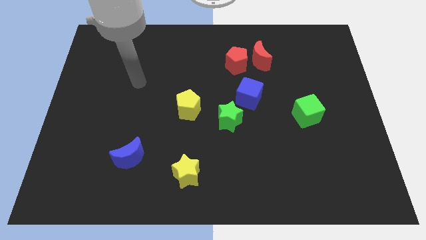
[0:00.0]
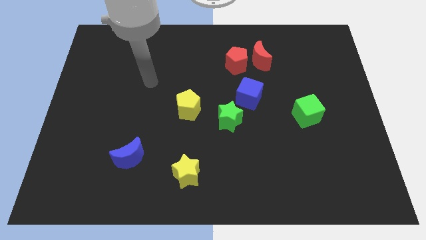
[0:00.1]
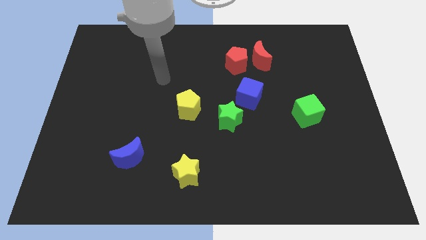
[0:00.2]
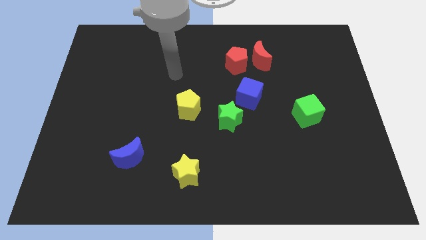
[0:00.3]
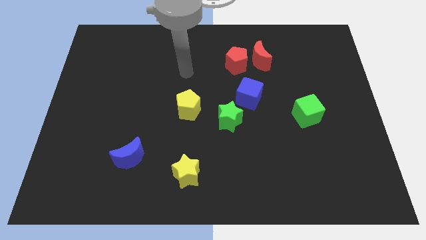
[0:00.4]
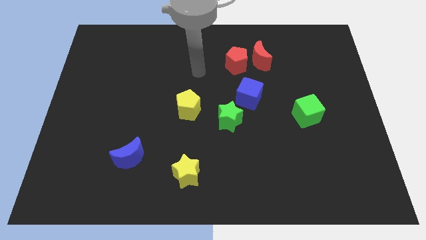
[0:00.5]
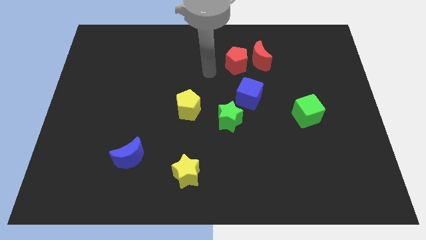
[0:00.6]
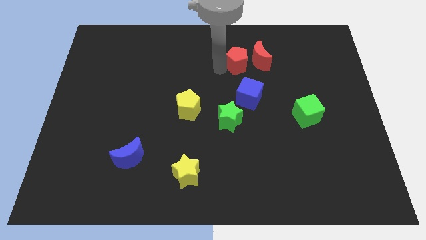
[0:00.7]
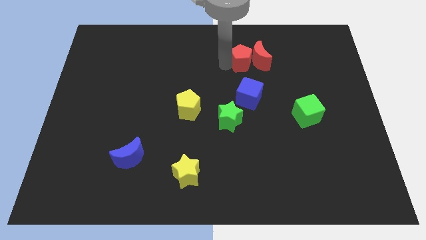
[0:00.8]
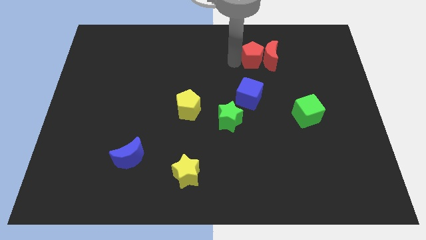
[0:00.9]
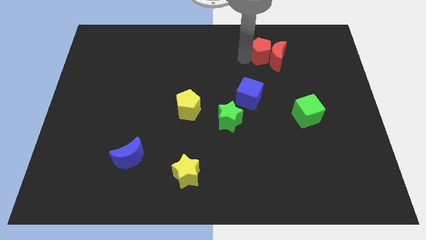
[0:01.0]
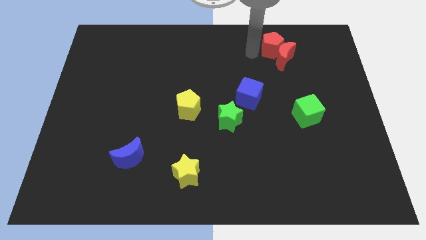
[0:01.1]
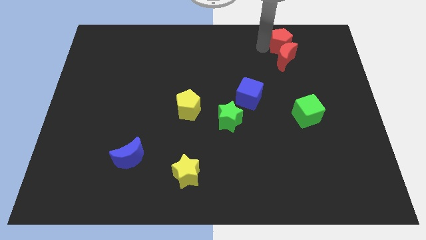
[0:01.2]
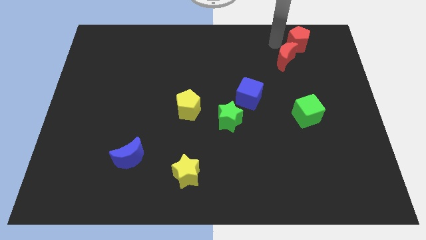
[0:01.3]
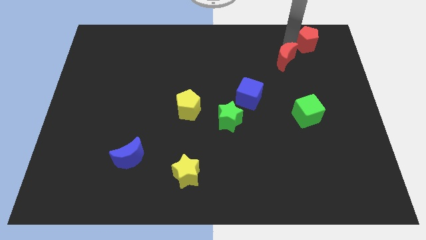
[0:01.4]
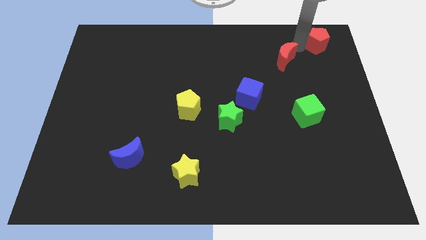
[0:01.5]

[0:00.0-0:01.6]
pull the red moon apart from the red pentagon

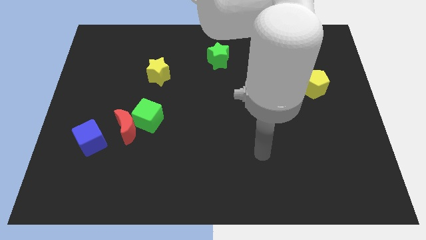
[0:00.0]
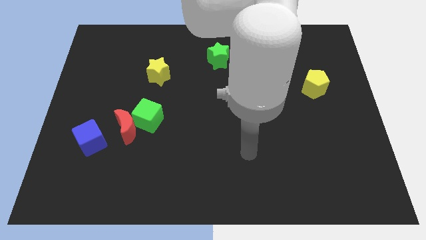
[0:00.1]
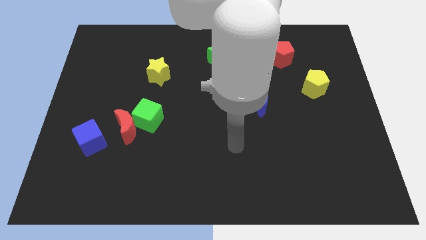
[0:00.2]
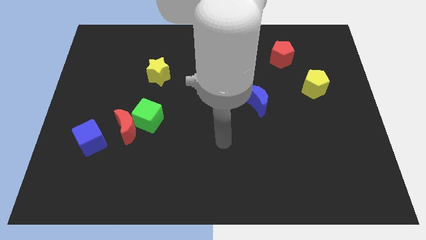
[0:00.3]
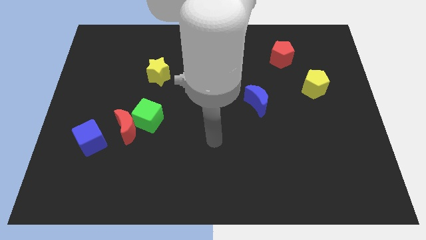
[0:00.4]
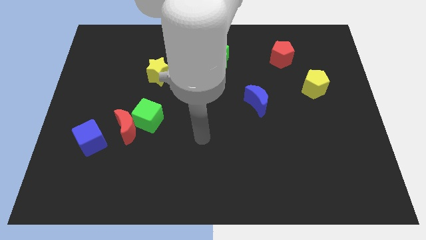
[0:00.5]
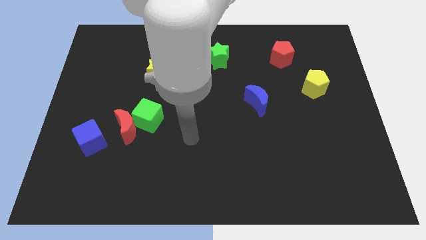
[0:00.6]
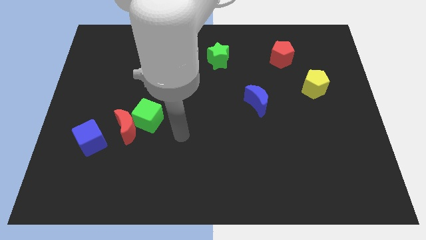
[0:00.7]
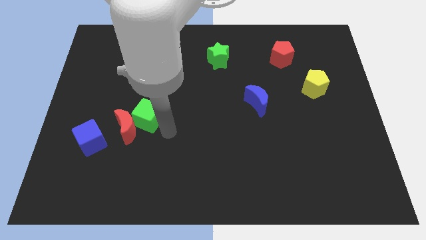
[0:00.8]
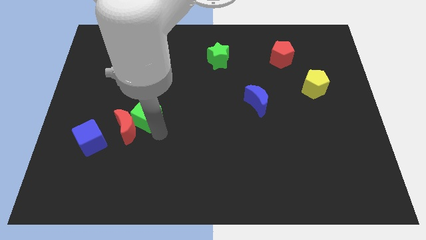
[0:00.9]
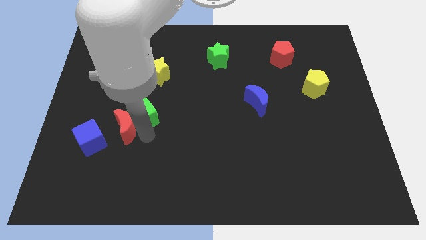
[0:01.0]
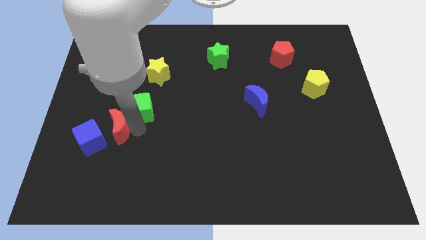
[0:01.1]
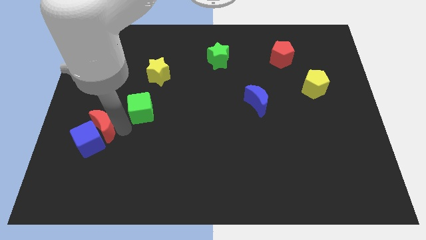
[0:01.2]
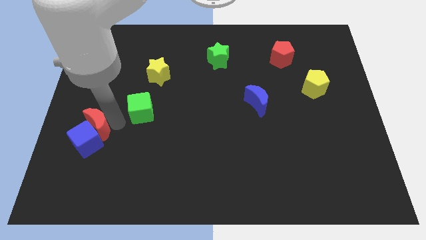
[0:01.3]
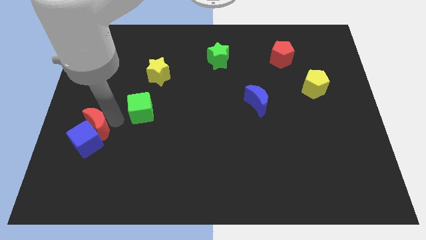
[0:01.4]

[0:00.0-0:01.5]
separate the green cube from the red moon

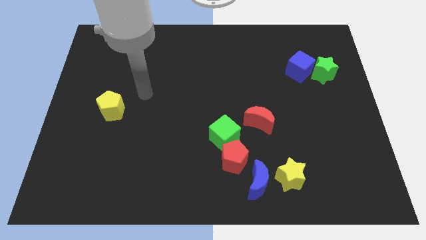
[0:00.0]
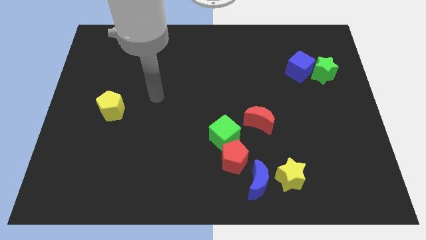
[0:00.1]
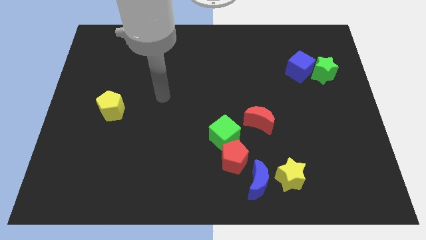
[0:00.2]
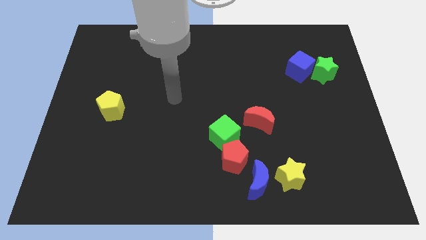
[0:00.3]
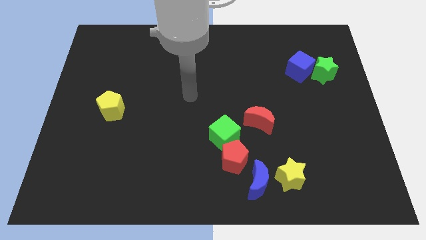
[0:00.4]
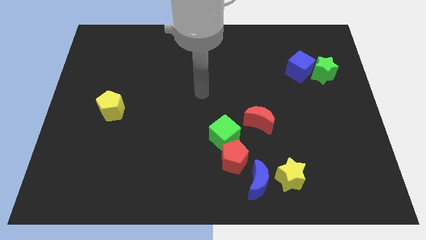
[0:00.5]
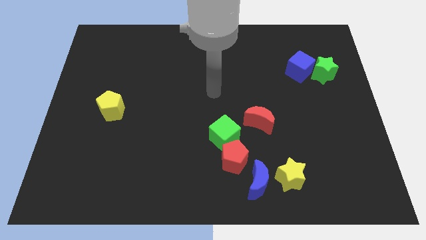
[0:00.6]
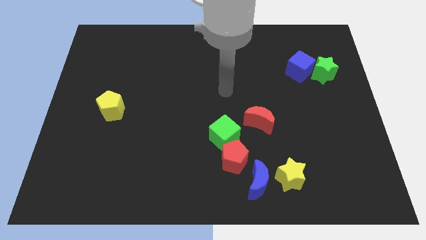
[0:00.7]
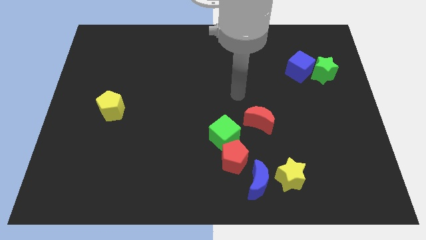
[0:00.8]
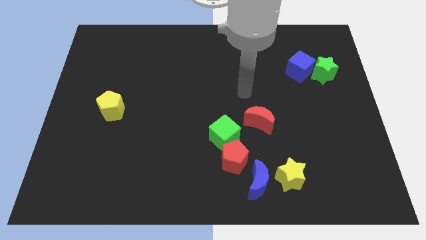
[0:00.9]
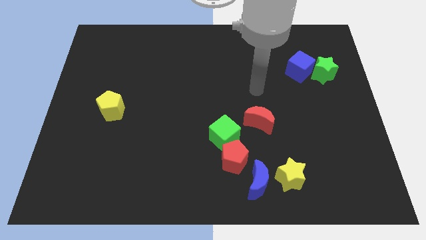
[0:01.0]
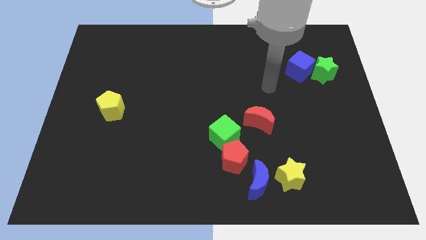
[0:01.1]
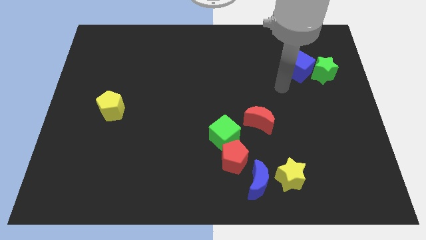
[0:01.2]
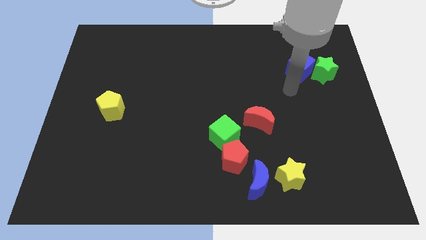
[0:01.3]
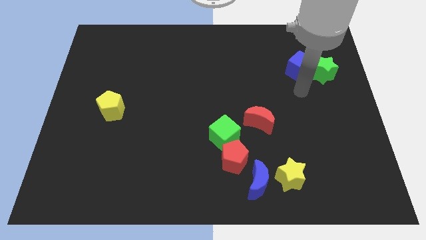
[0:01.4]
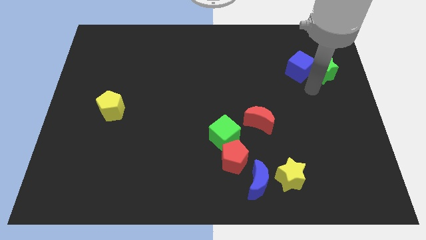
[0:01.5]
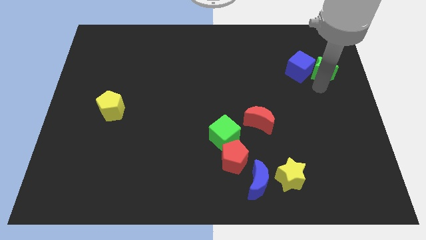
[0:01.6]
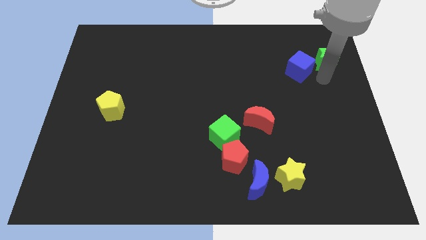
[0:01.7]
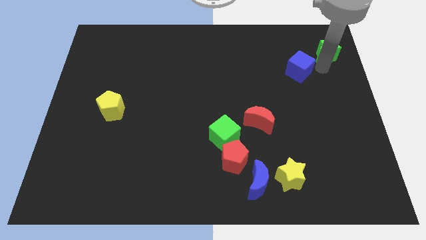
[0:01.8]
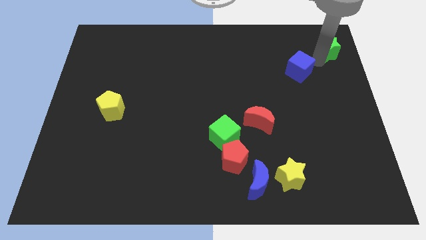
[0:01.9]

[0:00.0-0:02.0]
move the blue cube away from the green star

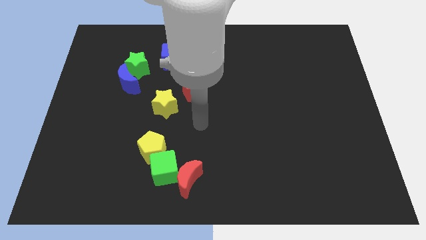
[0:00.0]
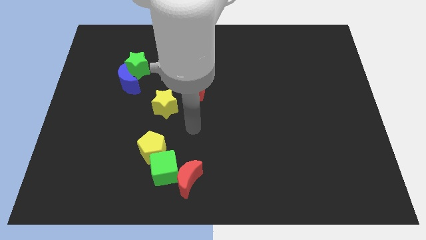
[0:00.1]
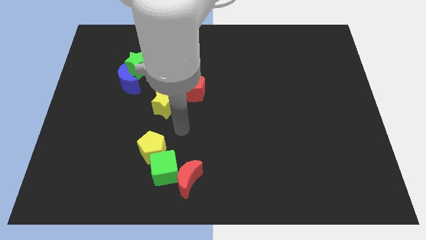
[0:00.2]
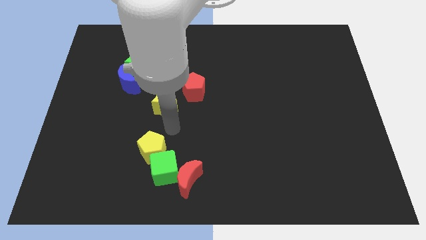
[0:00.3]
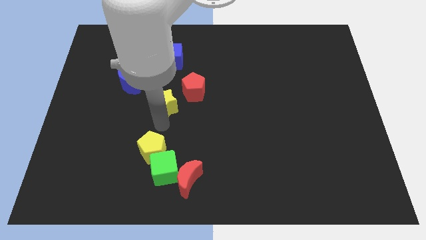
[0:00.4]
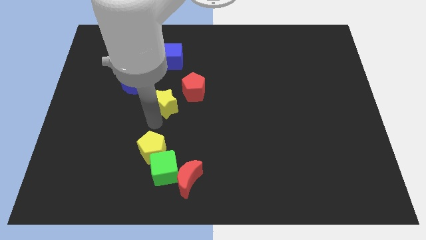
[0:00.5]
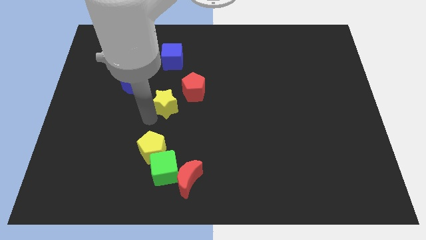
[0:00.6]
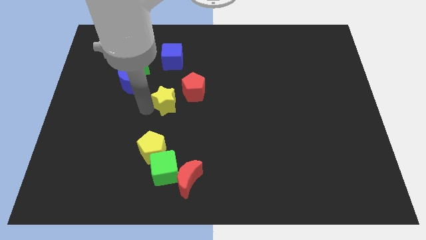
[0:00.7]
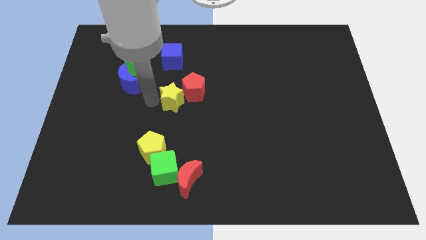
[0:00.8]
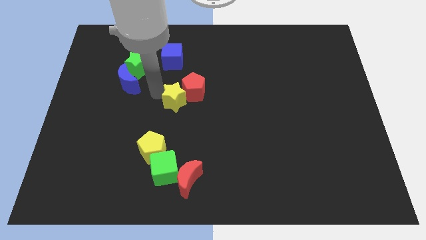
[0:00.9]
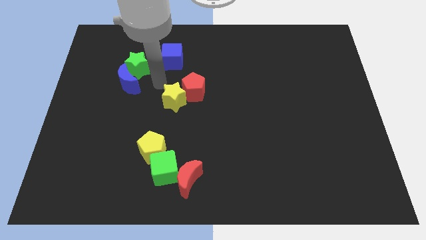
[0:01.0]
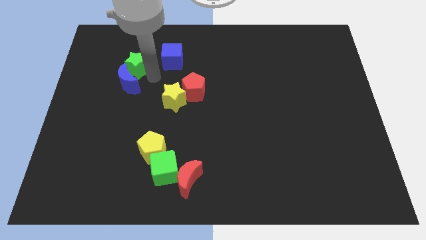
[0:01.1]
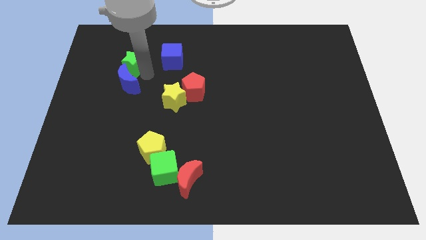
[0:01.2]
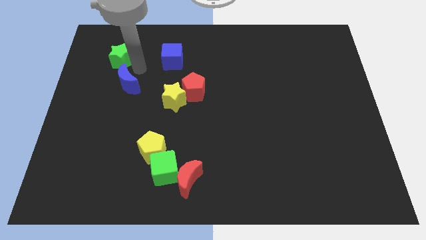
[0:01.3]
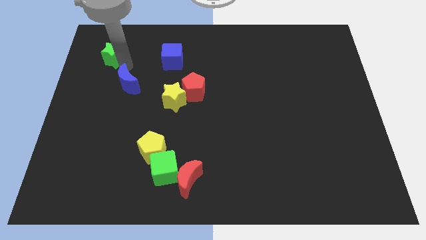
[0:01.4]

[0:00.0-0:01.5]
pull the blue moon apart from the green star

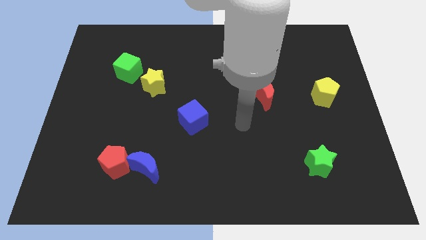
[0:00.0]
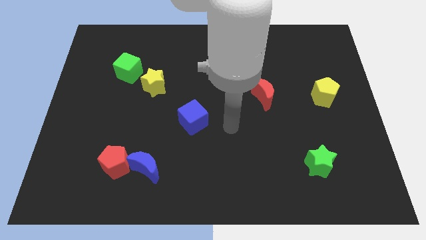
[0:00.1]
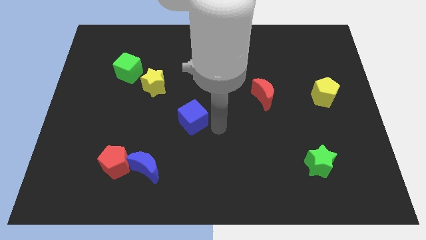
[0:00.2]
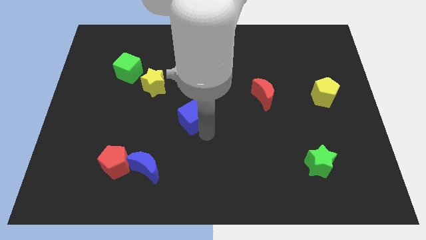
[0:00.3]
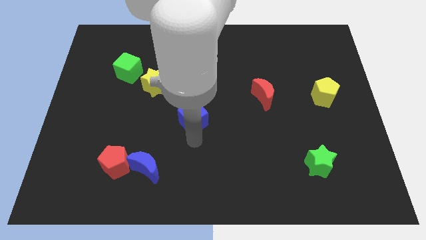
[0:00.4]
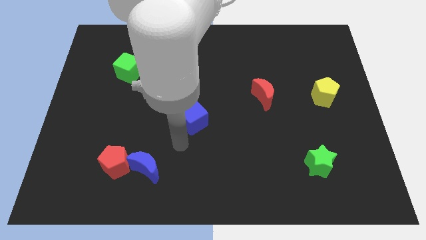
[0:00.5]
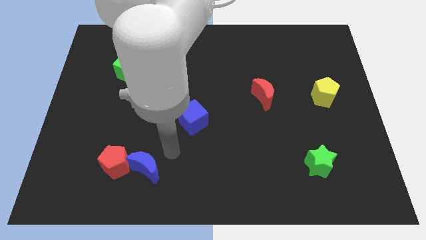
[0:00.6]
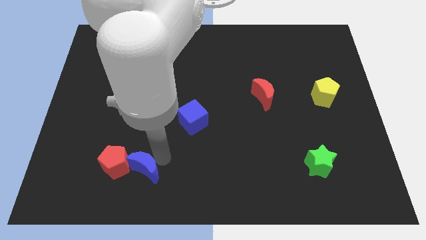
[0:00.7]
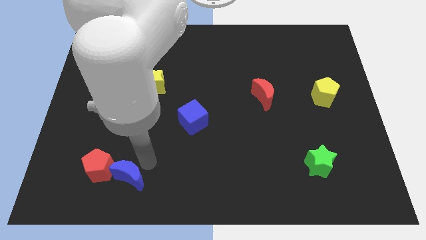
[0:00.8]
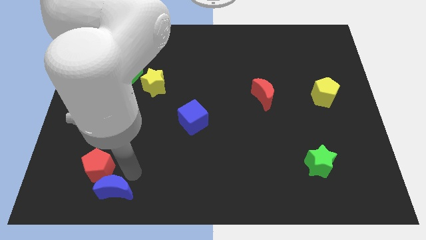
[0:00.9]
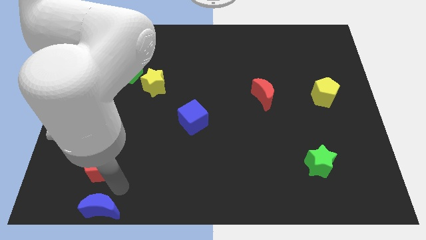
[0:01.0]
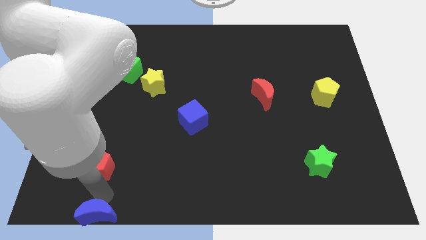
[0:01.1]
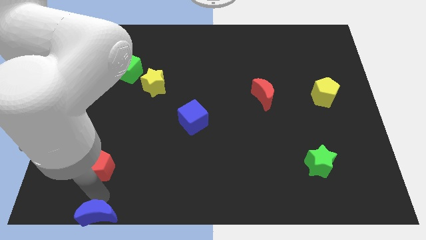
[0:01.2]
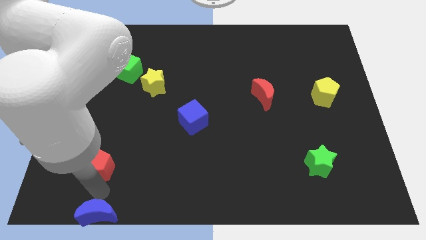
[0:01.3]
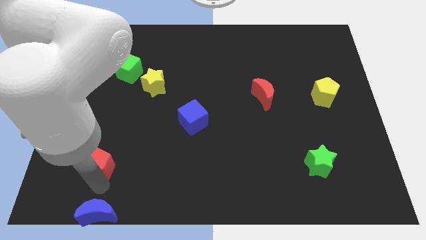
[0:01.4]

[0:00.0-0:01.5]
pull the red pentagon apart from the blue moon

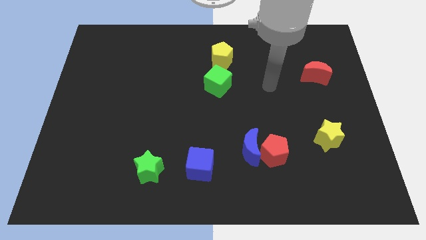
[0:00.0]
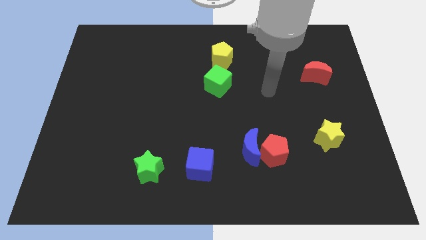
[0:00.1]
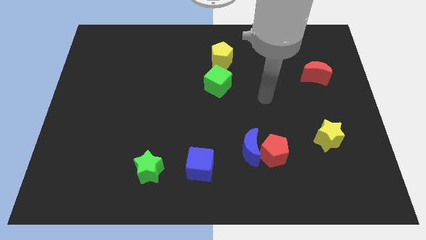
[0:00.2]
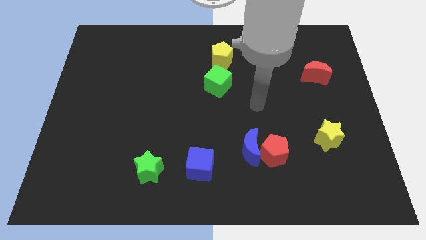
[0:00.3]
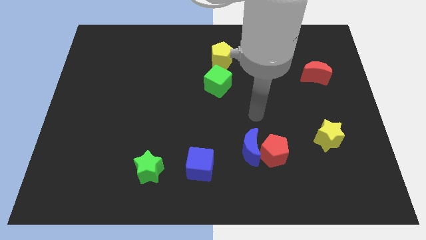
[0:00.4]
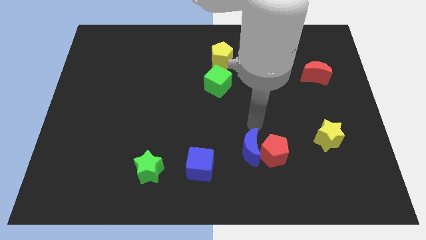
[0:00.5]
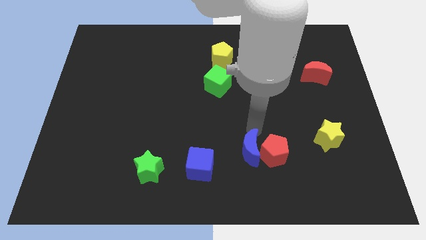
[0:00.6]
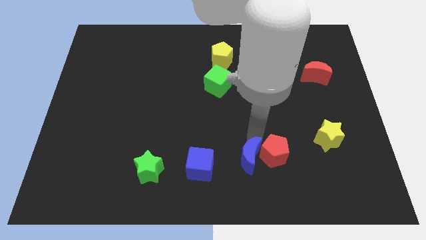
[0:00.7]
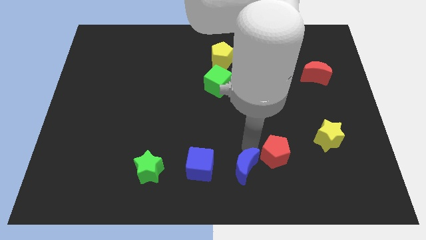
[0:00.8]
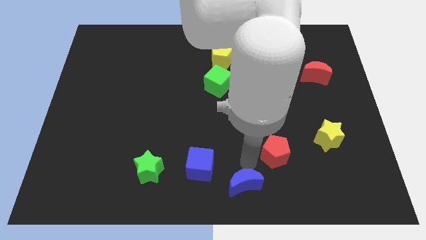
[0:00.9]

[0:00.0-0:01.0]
separate the red pentagon from the blue moon
